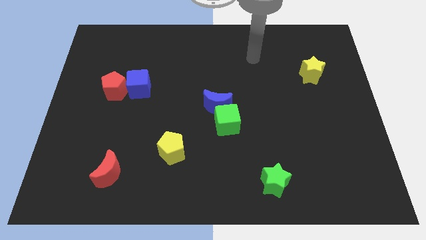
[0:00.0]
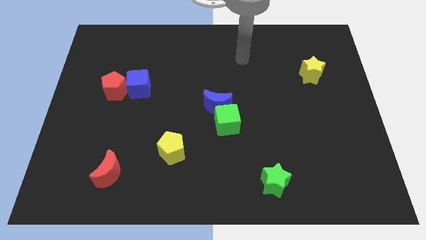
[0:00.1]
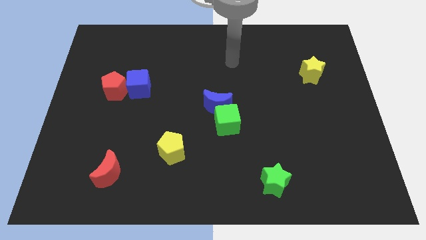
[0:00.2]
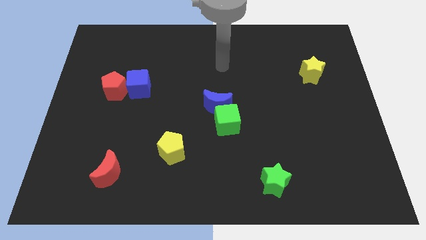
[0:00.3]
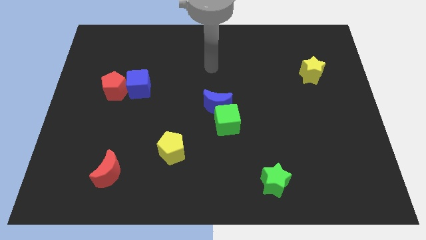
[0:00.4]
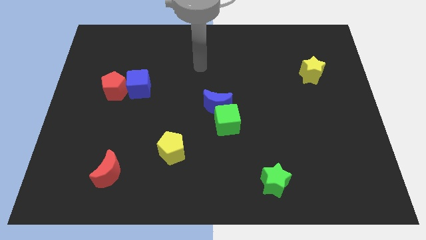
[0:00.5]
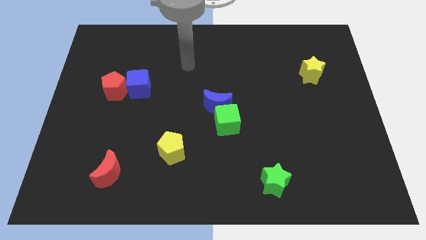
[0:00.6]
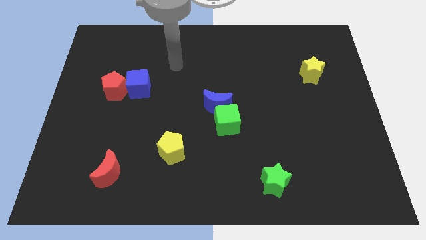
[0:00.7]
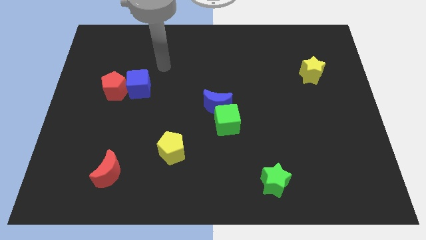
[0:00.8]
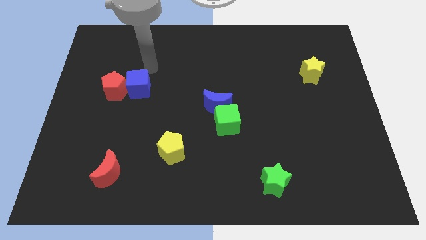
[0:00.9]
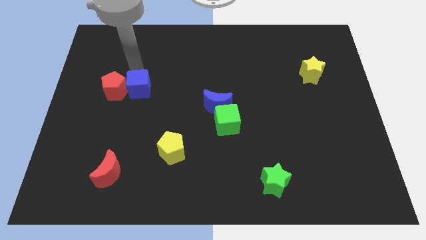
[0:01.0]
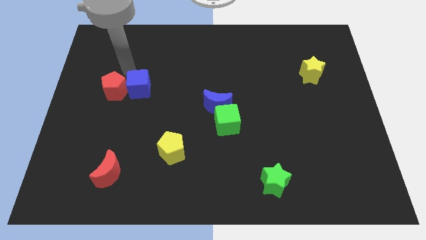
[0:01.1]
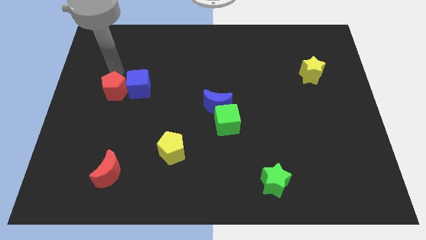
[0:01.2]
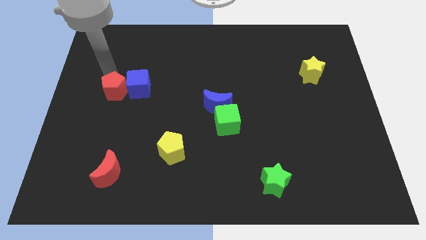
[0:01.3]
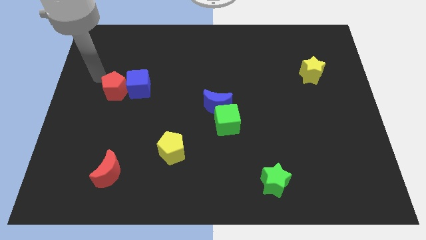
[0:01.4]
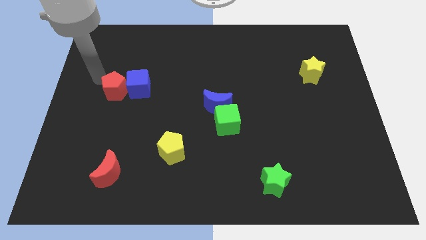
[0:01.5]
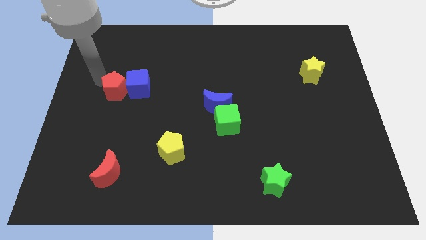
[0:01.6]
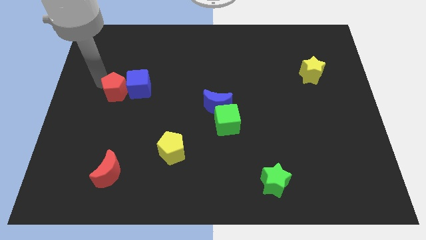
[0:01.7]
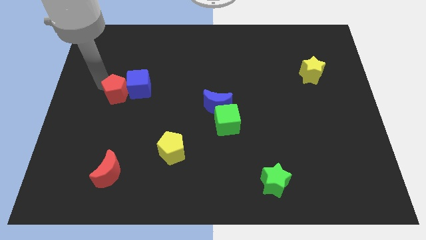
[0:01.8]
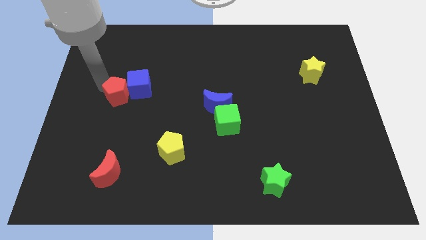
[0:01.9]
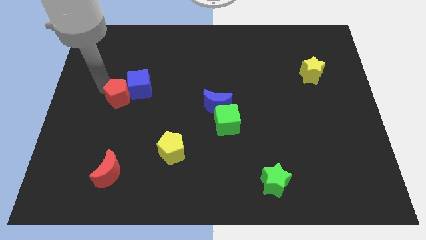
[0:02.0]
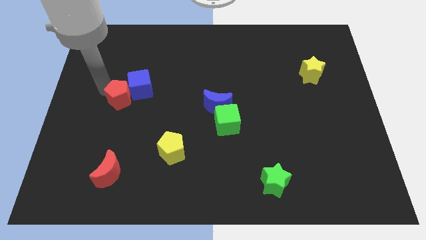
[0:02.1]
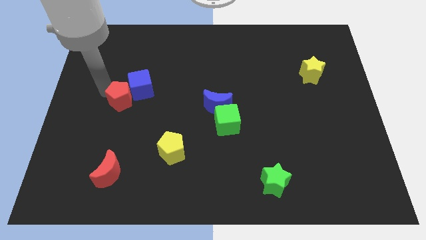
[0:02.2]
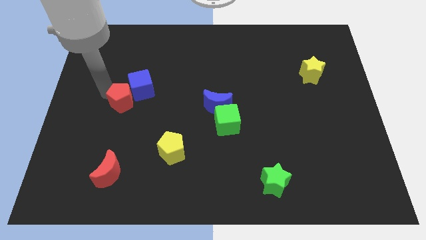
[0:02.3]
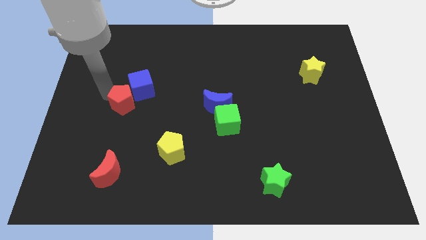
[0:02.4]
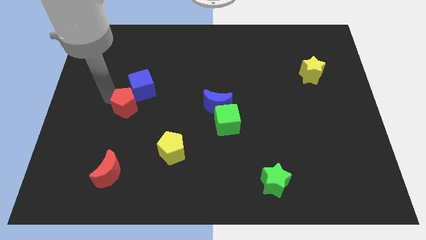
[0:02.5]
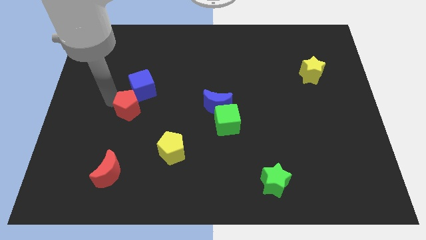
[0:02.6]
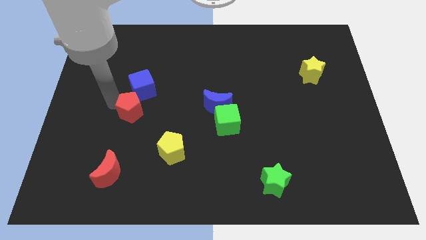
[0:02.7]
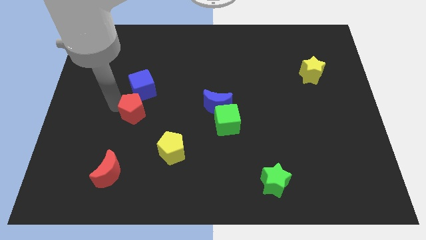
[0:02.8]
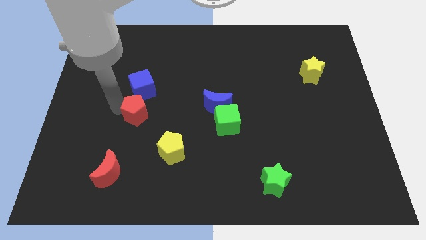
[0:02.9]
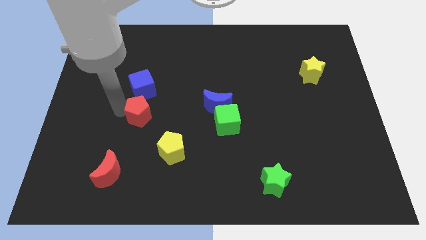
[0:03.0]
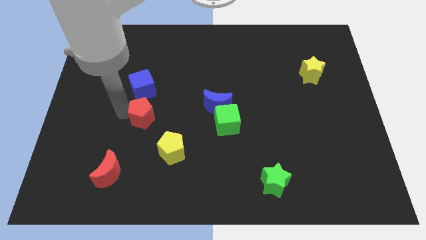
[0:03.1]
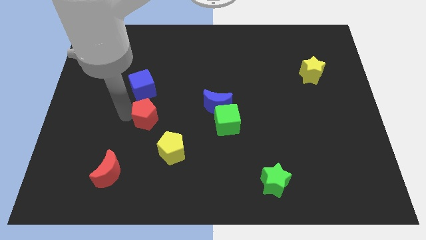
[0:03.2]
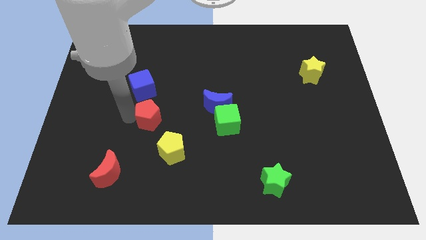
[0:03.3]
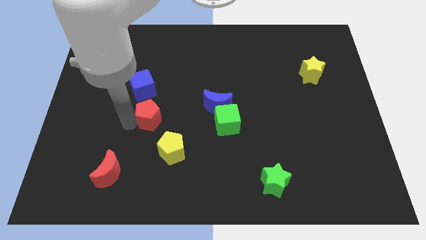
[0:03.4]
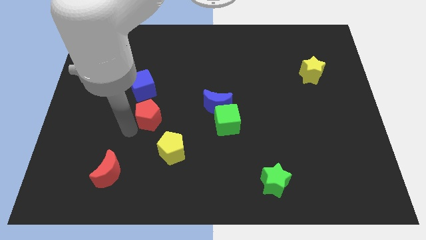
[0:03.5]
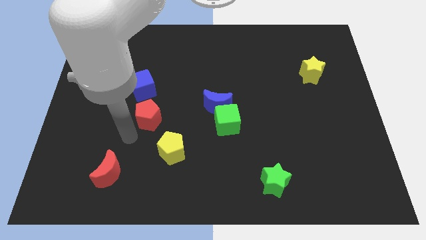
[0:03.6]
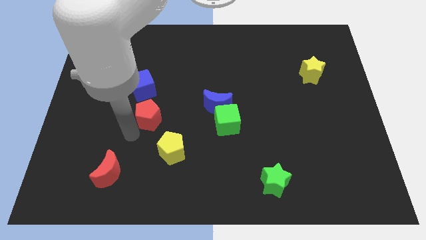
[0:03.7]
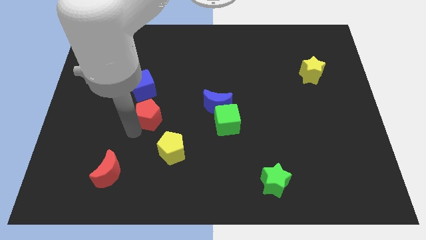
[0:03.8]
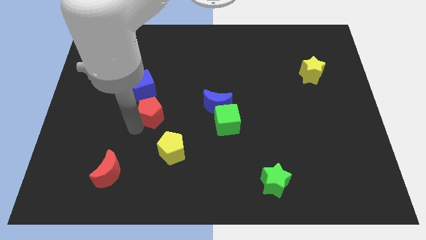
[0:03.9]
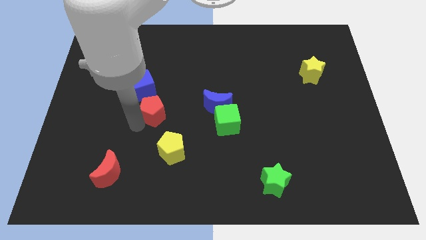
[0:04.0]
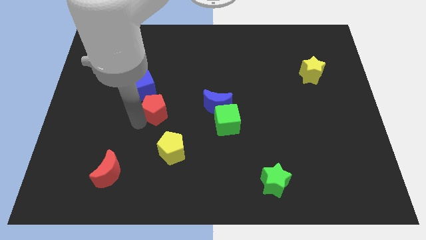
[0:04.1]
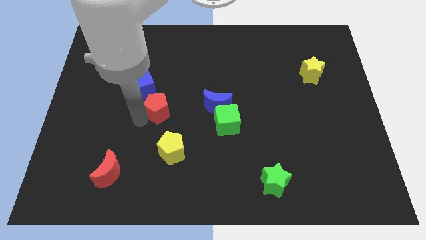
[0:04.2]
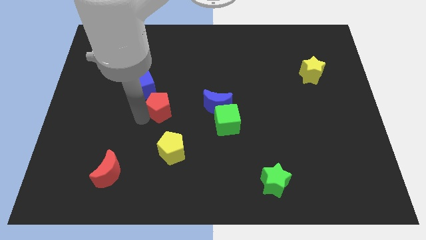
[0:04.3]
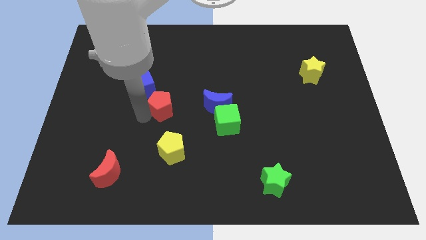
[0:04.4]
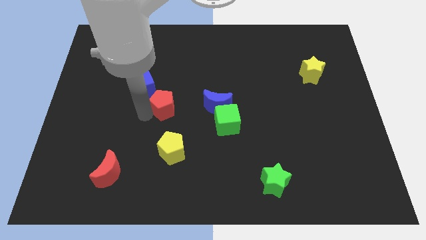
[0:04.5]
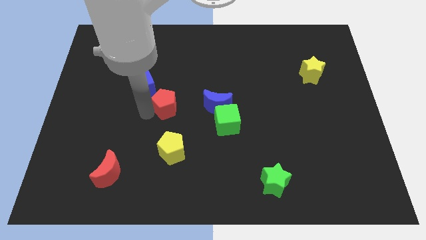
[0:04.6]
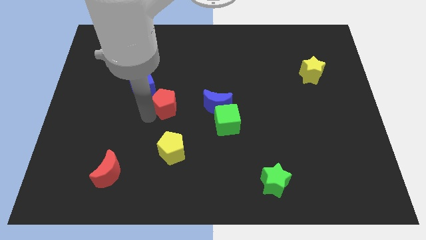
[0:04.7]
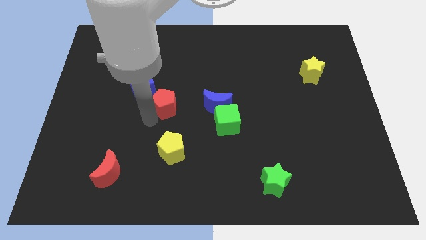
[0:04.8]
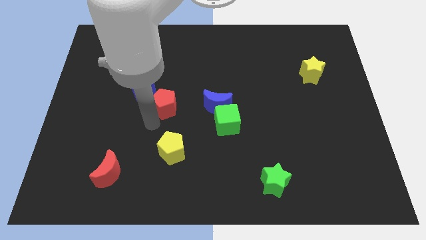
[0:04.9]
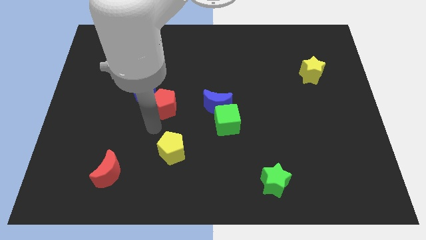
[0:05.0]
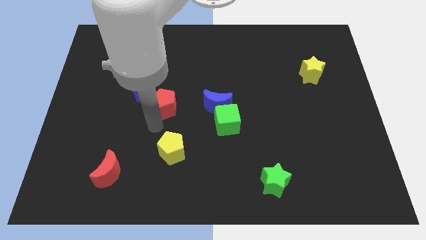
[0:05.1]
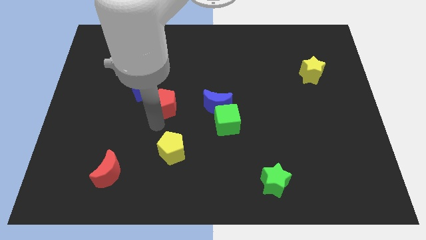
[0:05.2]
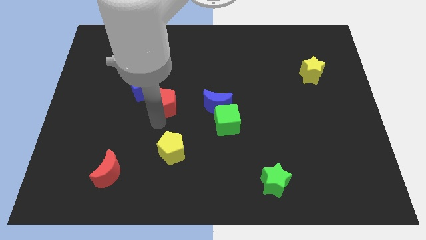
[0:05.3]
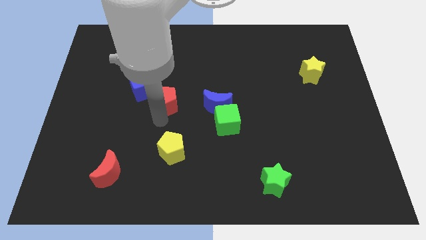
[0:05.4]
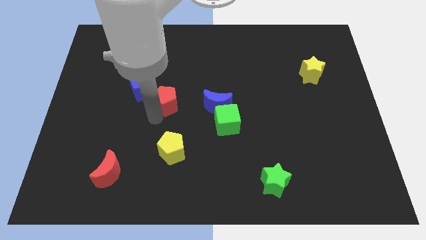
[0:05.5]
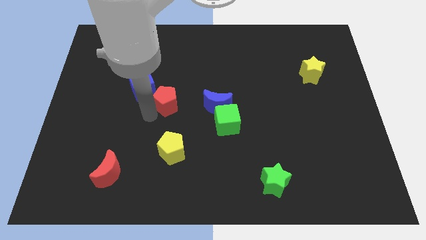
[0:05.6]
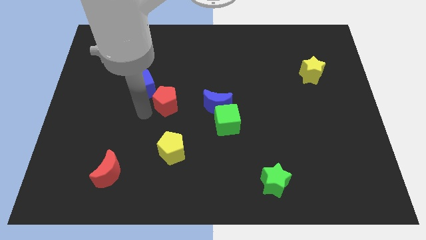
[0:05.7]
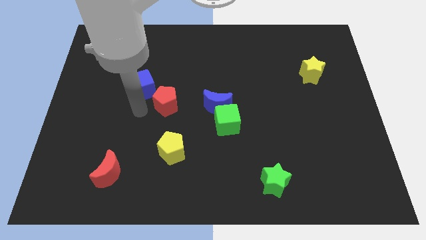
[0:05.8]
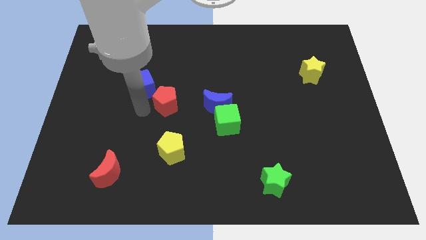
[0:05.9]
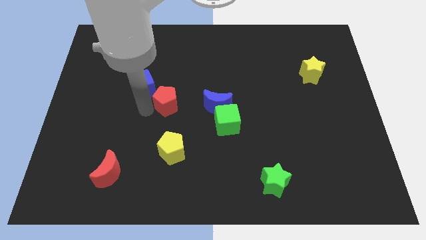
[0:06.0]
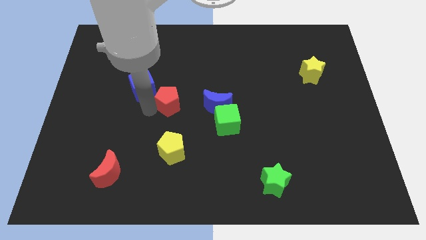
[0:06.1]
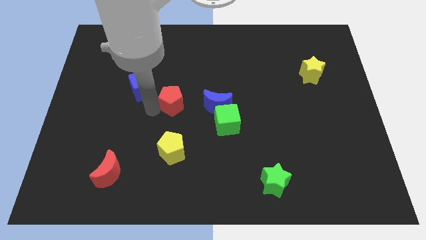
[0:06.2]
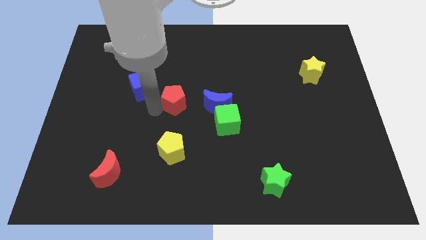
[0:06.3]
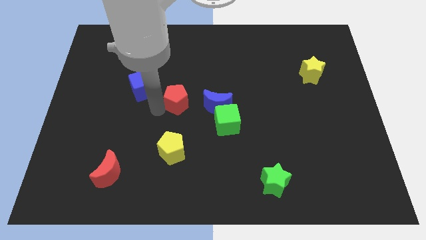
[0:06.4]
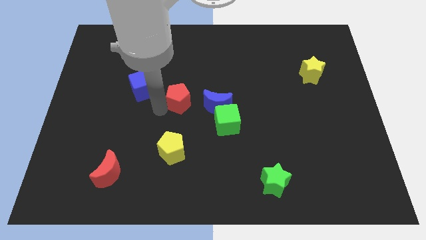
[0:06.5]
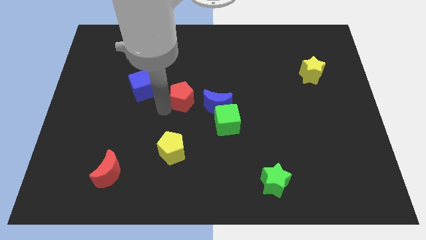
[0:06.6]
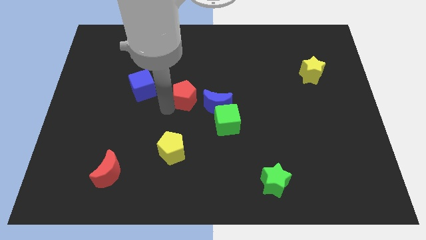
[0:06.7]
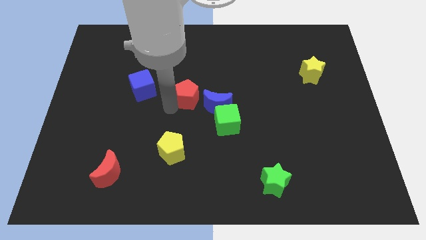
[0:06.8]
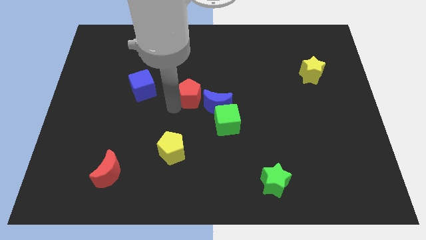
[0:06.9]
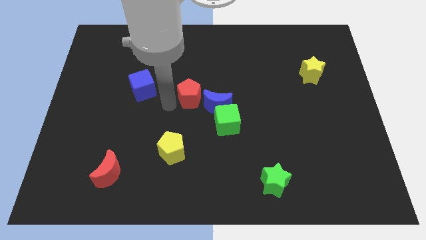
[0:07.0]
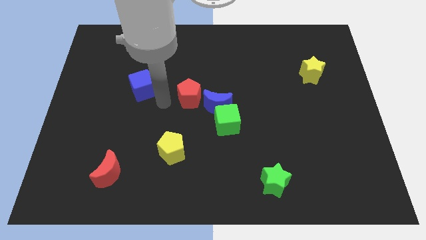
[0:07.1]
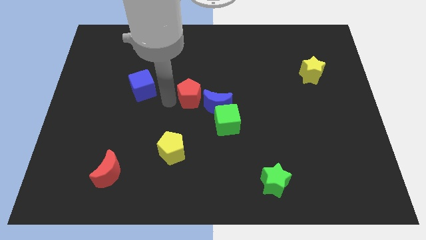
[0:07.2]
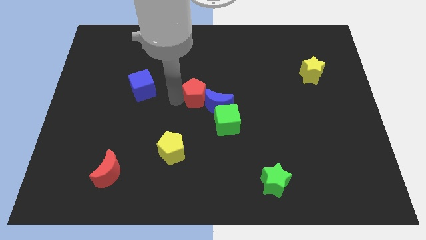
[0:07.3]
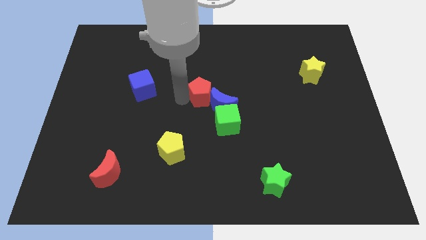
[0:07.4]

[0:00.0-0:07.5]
push the red pentagon right

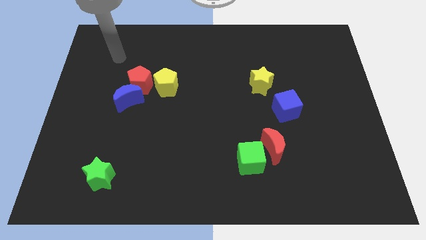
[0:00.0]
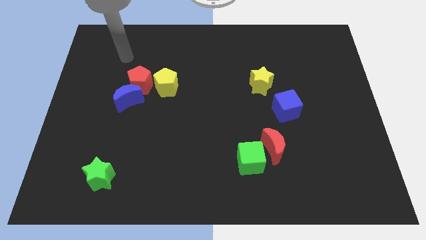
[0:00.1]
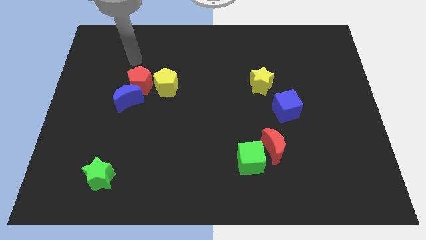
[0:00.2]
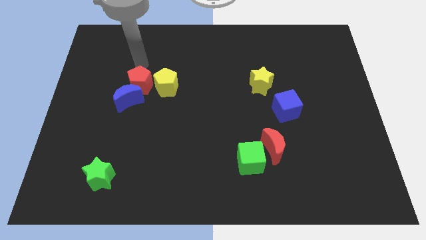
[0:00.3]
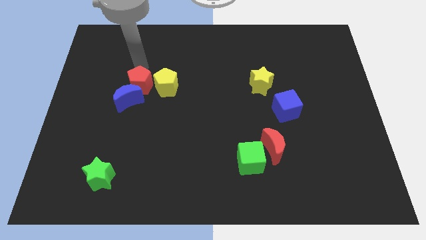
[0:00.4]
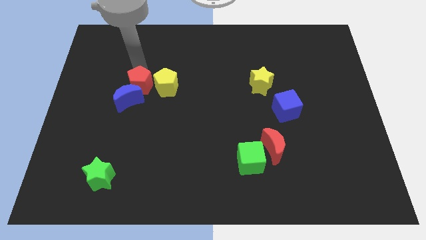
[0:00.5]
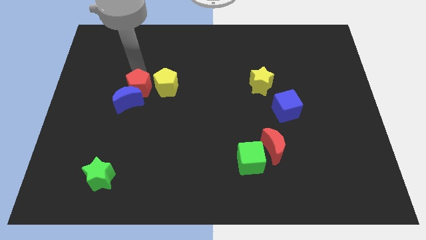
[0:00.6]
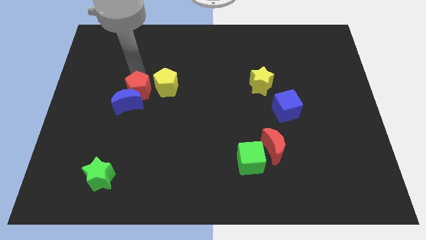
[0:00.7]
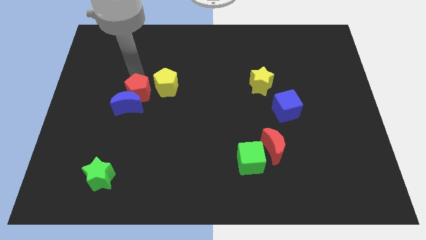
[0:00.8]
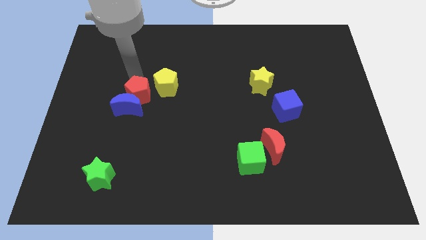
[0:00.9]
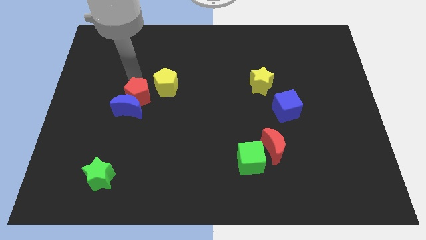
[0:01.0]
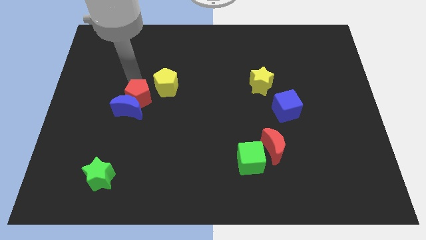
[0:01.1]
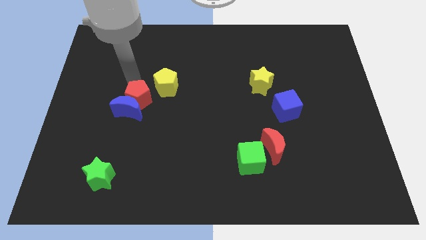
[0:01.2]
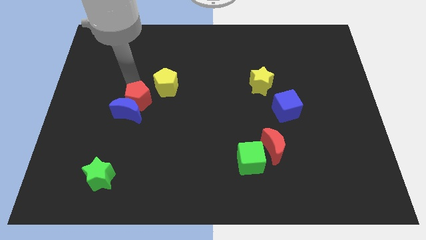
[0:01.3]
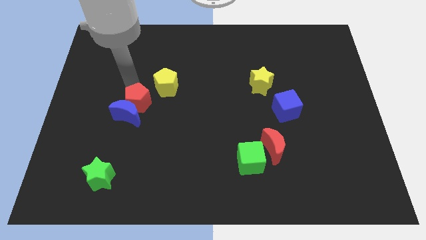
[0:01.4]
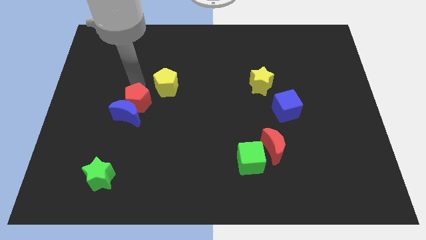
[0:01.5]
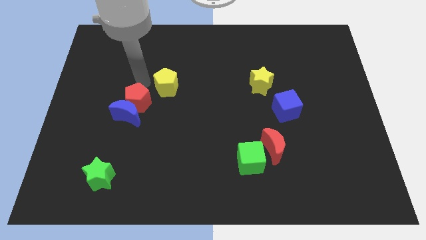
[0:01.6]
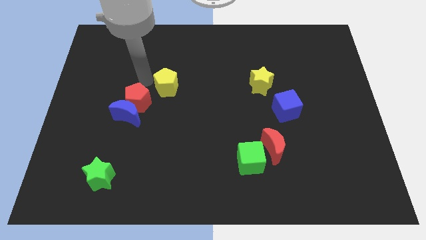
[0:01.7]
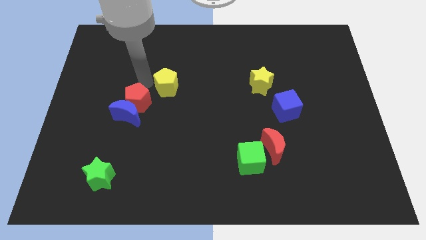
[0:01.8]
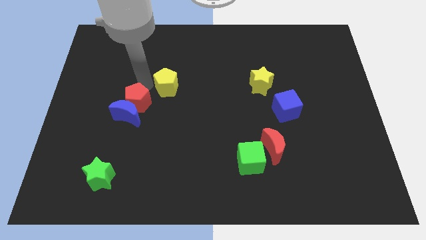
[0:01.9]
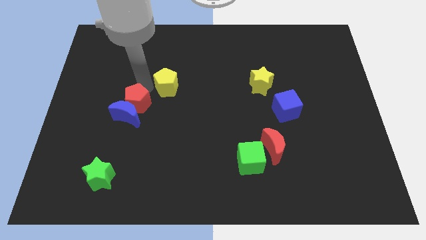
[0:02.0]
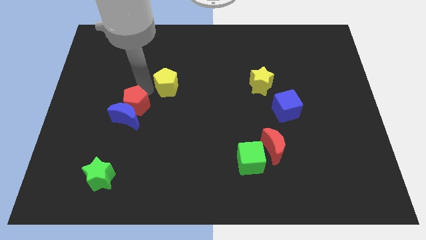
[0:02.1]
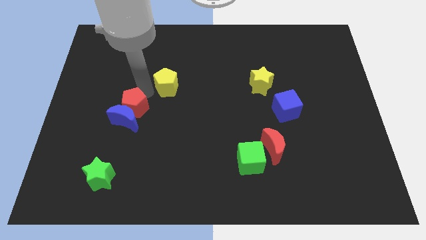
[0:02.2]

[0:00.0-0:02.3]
move the red pentagon downwards a little
